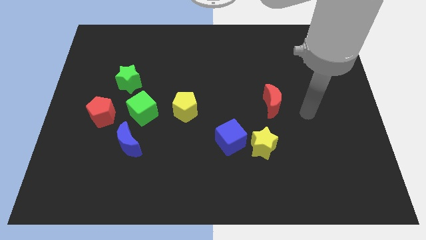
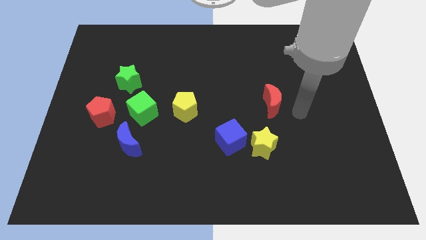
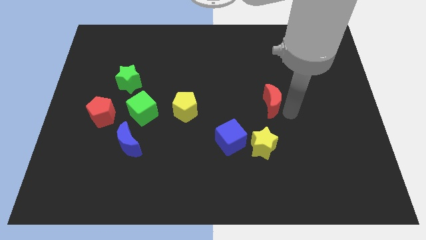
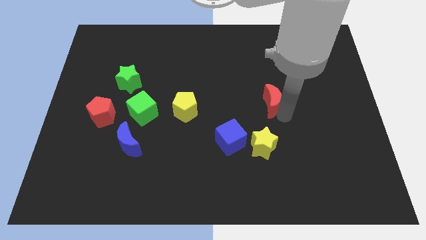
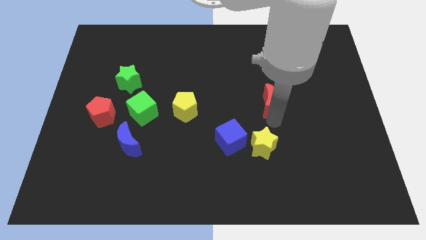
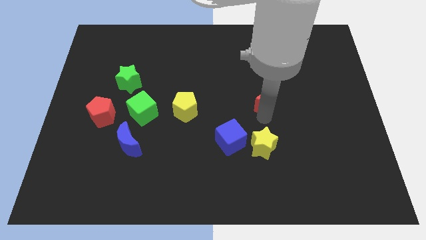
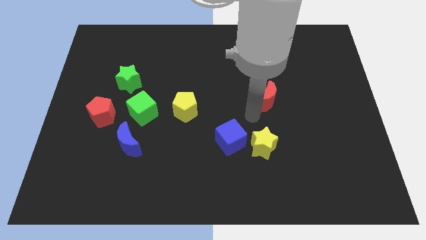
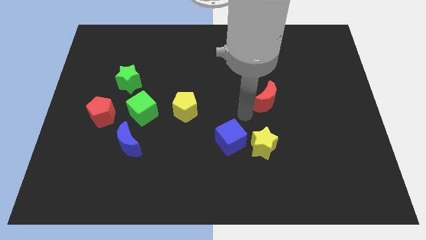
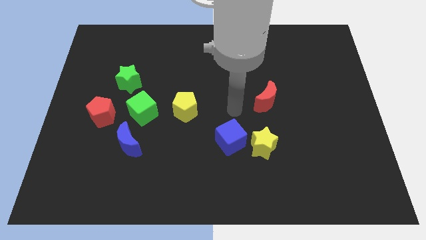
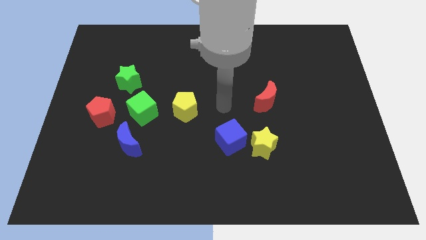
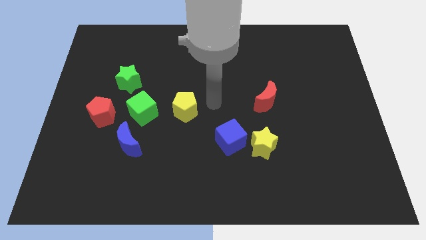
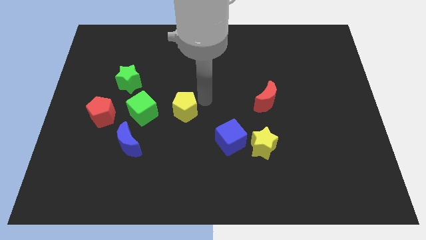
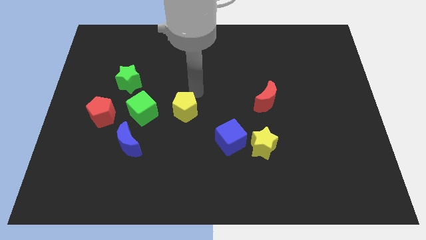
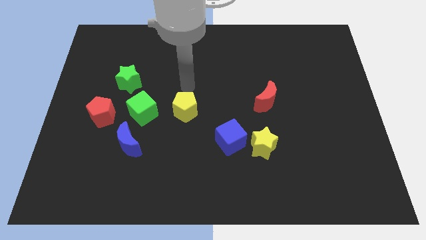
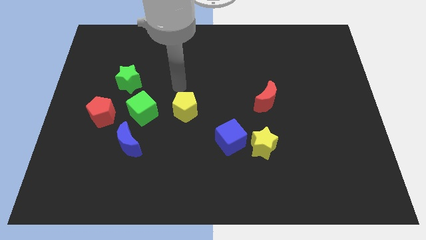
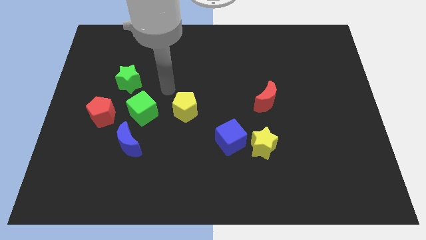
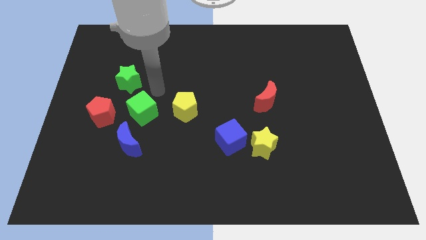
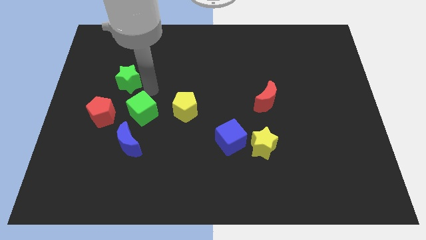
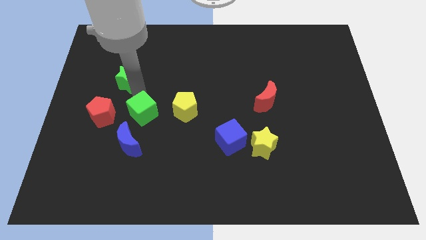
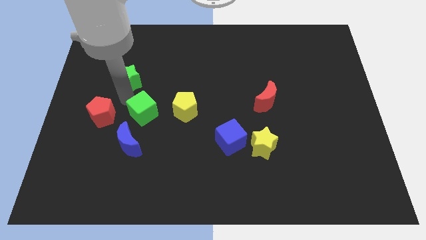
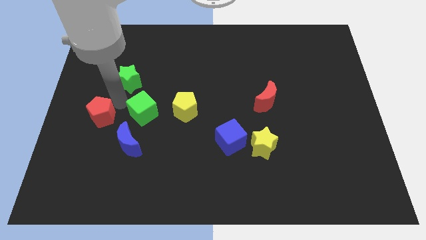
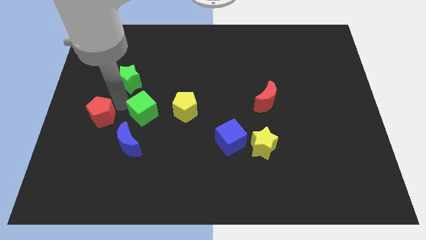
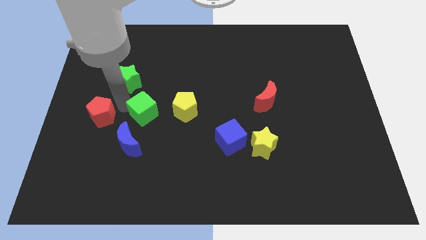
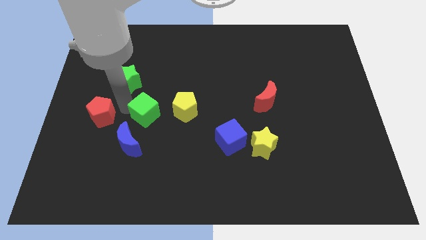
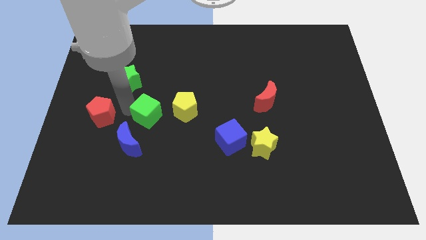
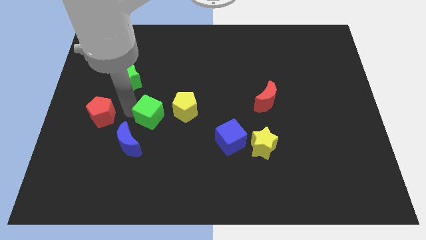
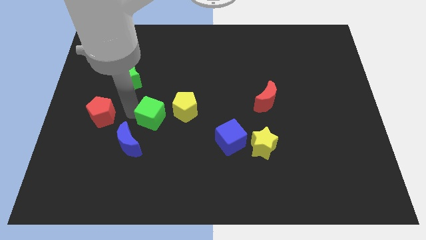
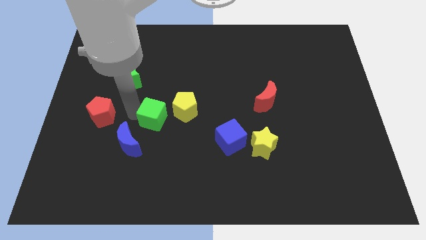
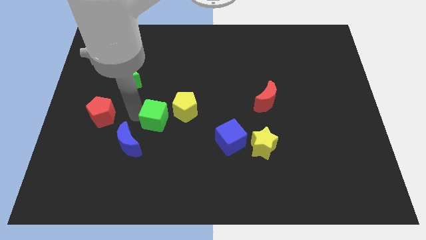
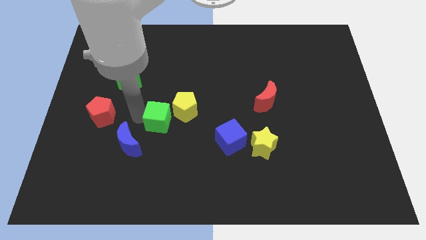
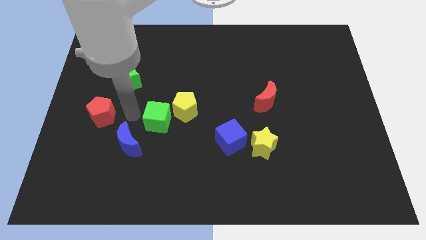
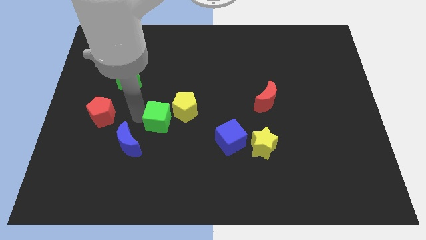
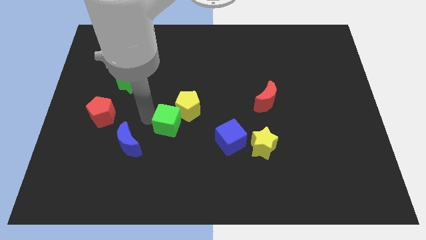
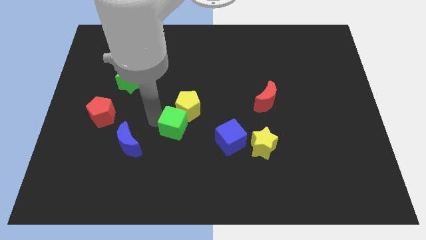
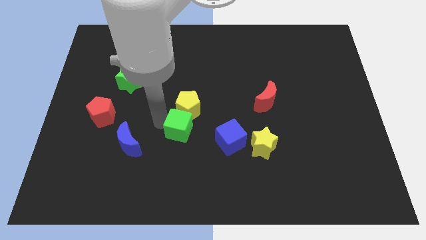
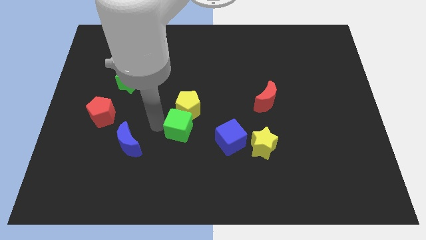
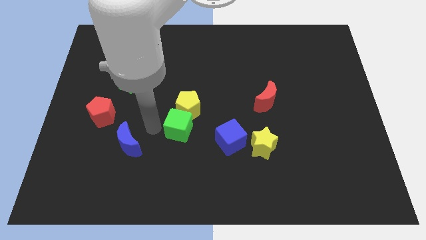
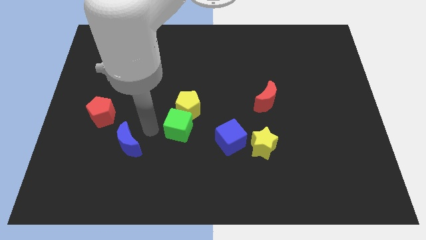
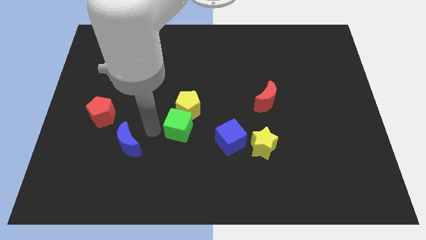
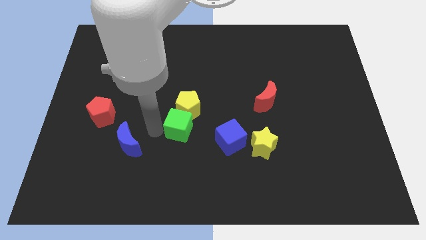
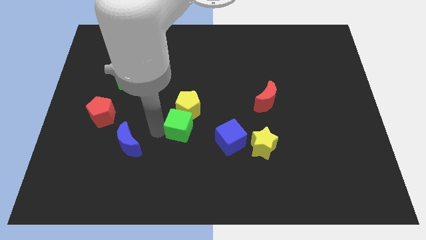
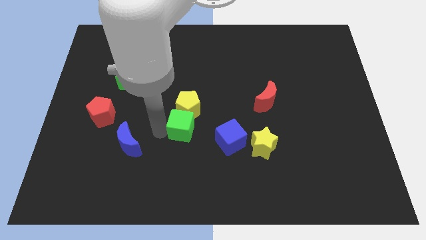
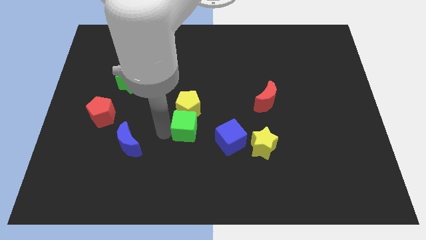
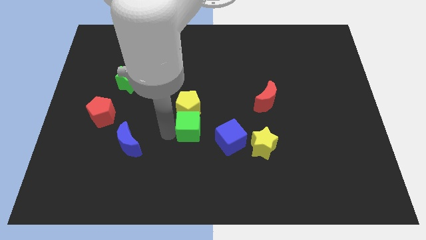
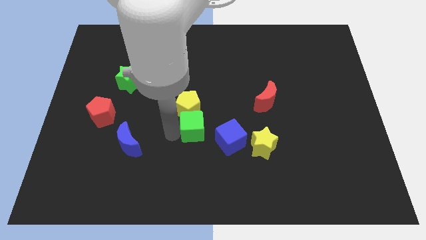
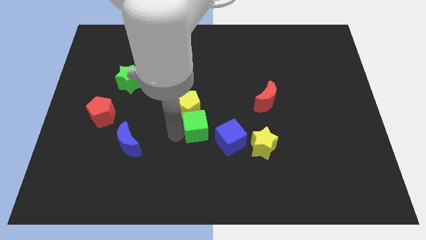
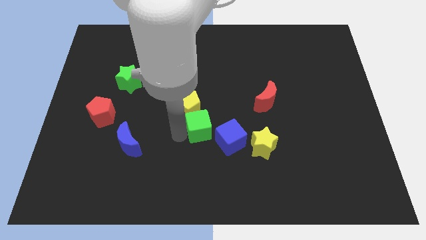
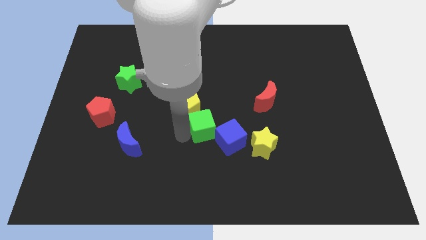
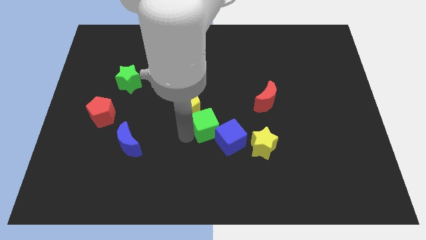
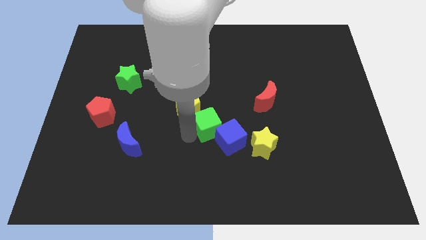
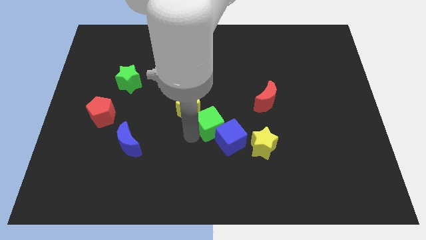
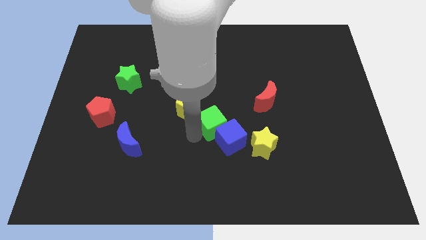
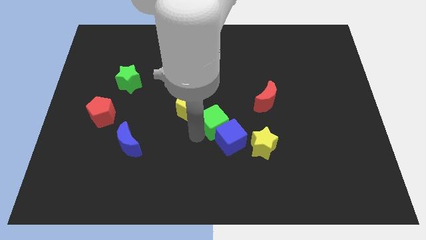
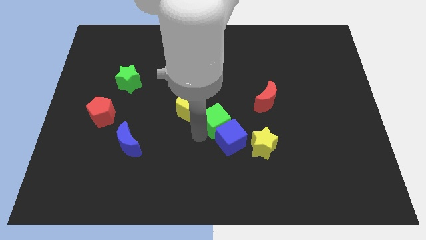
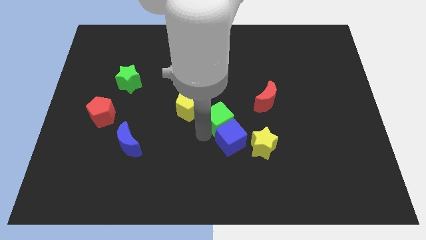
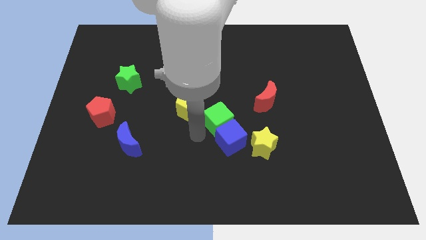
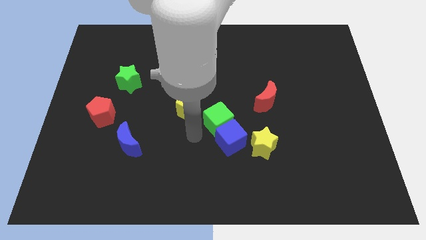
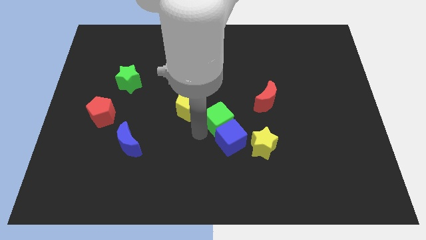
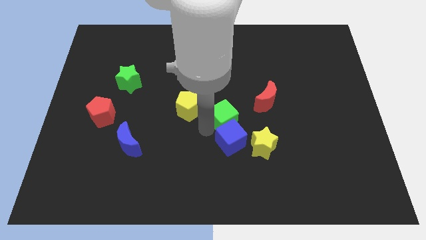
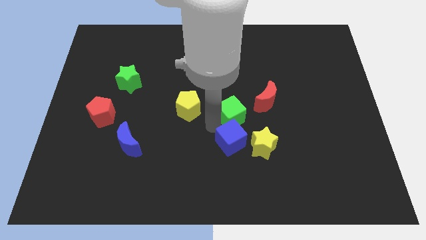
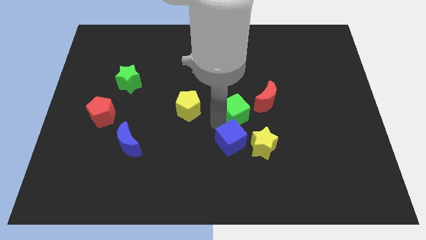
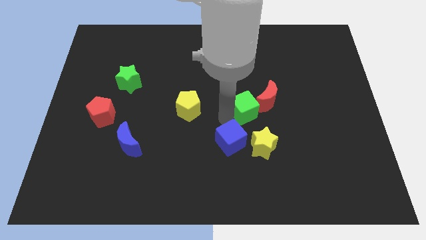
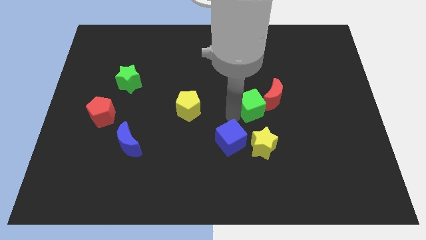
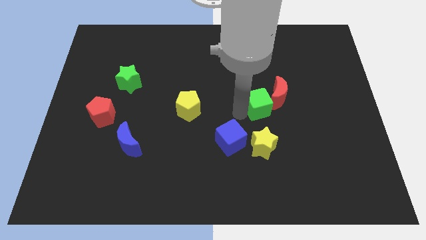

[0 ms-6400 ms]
slide the green cube to the red moon

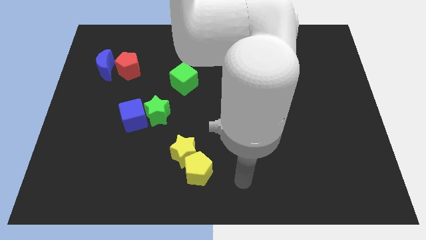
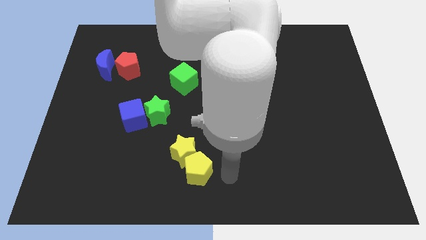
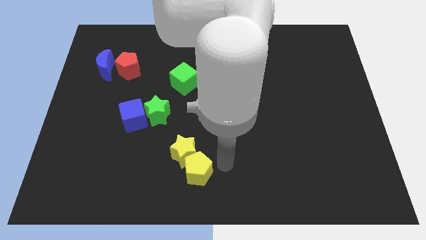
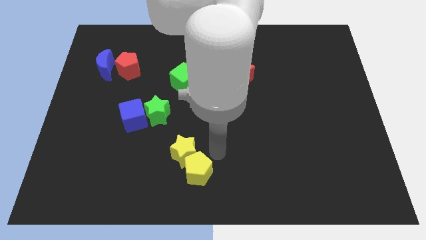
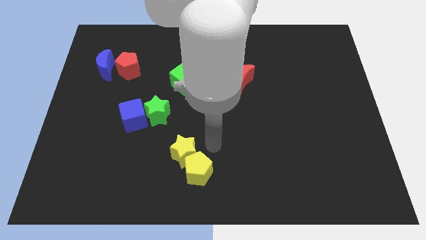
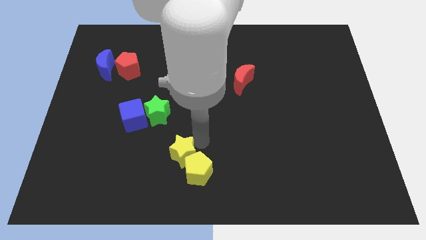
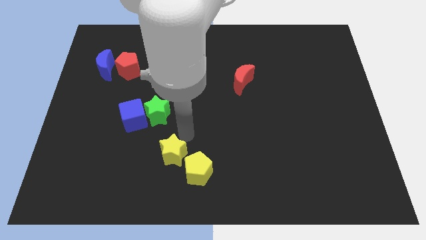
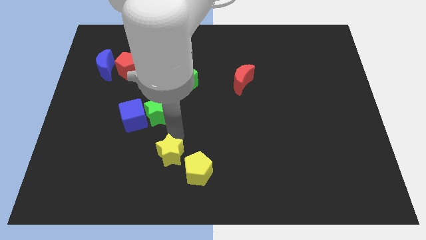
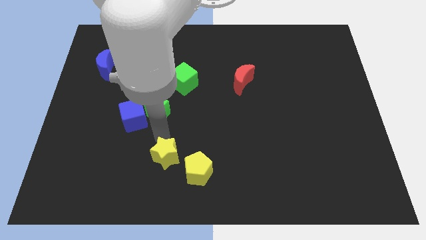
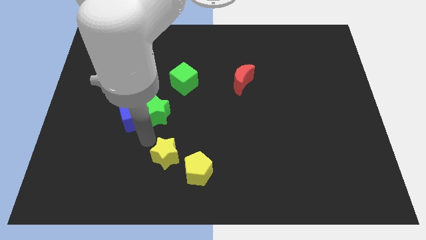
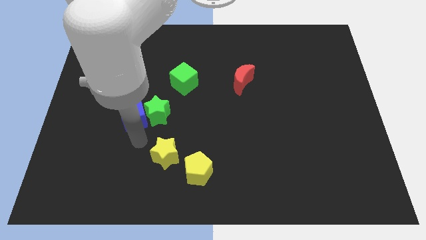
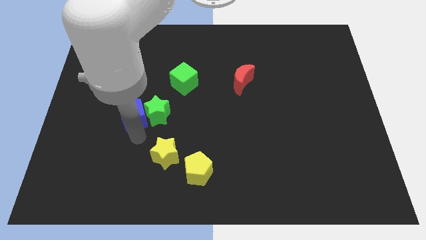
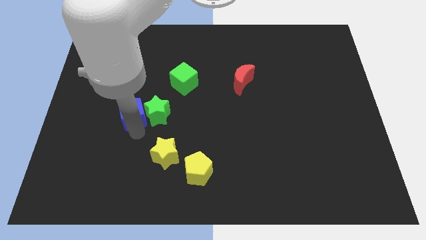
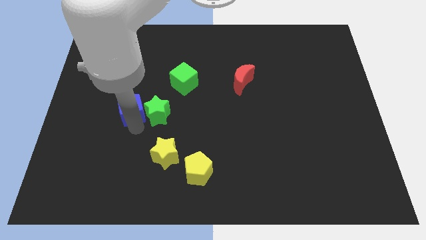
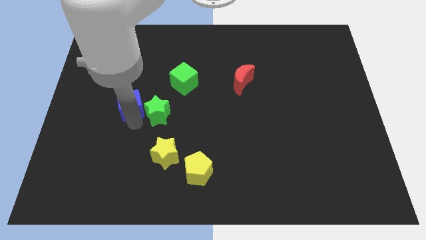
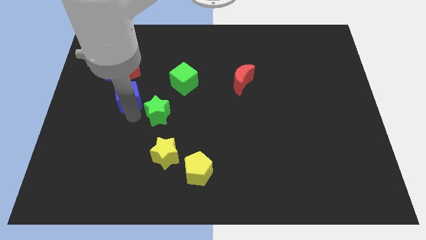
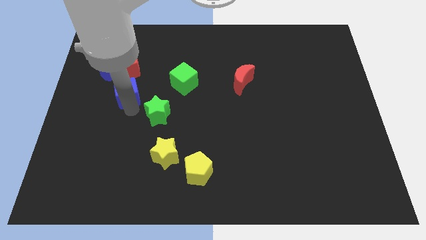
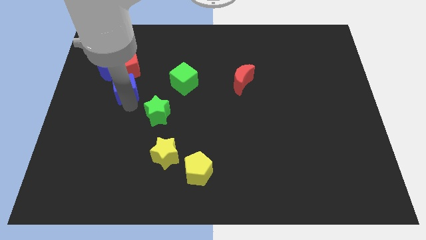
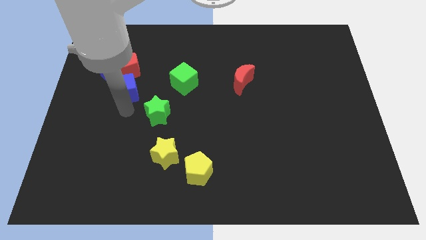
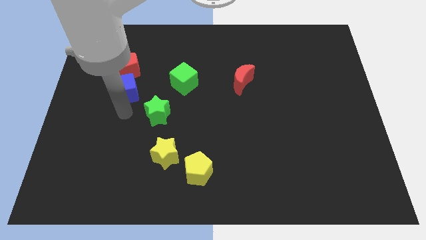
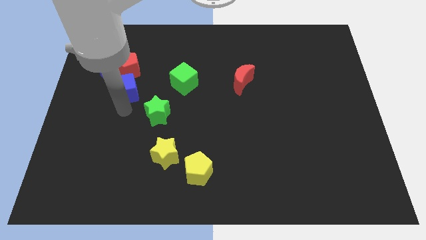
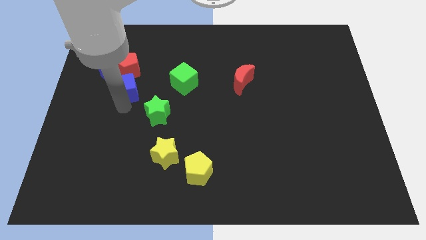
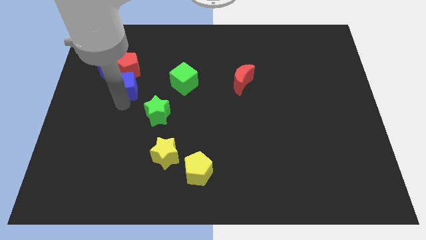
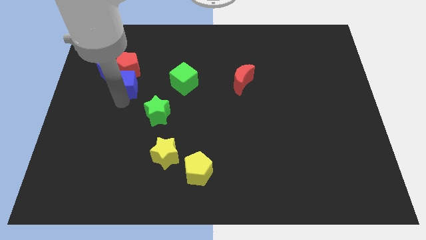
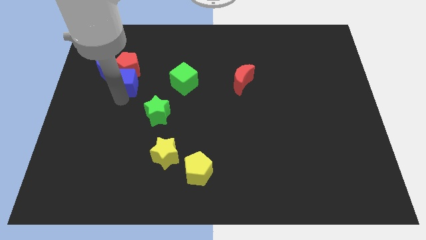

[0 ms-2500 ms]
push the blue cube next to the red pentagon
